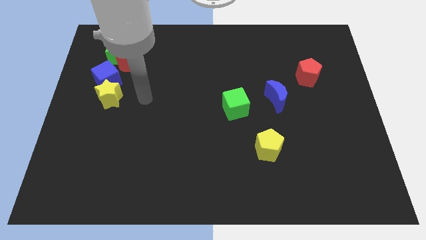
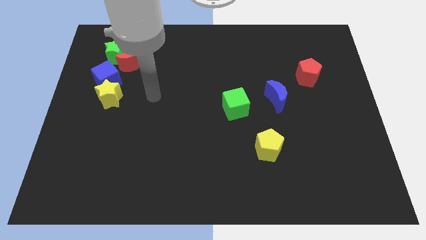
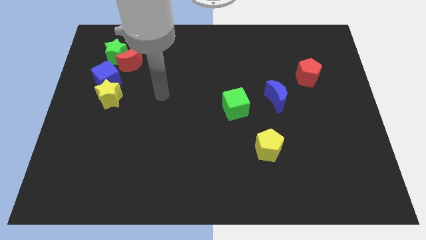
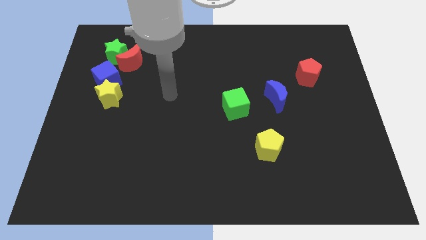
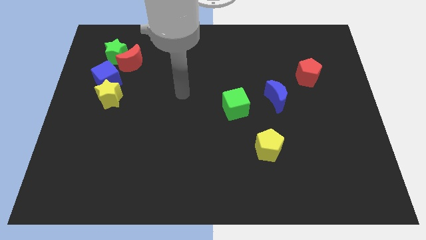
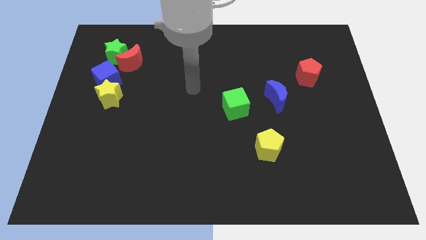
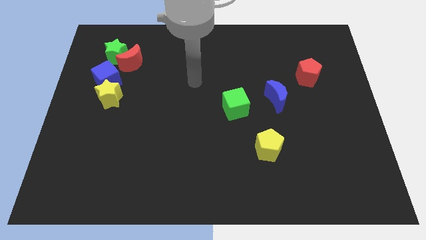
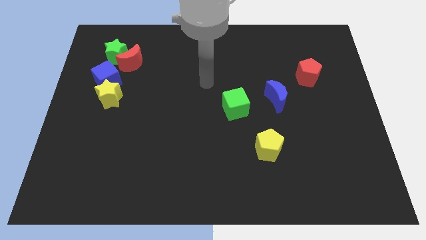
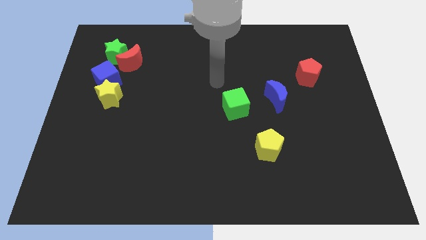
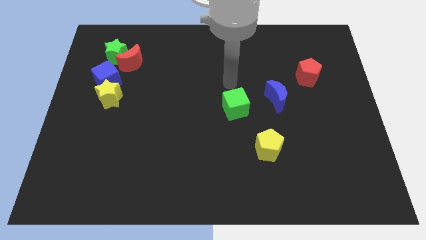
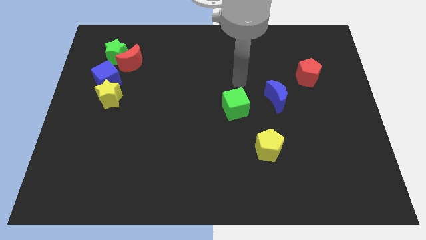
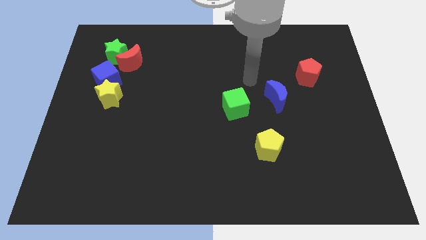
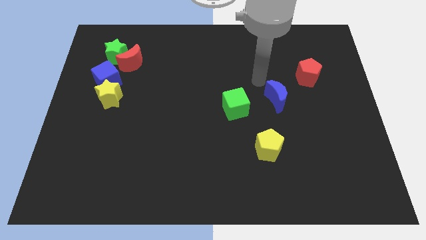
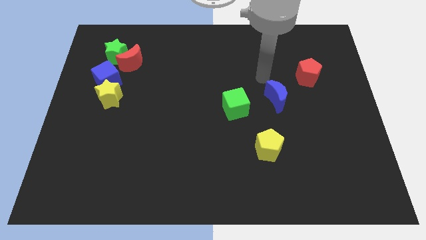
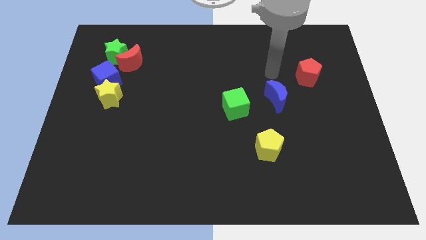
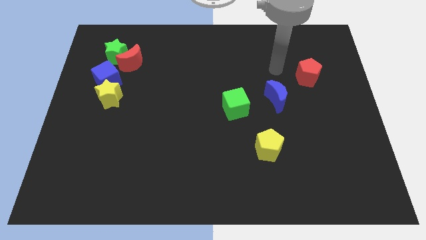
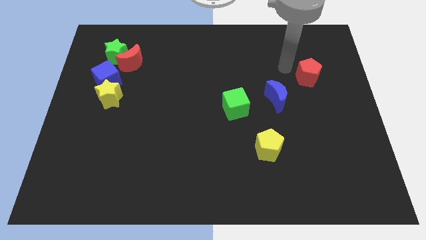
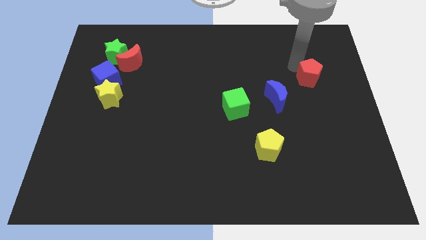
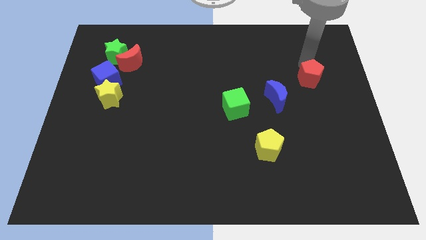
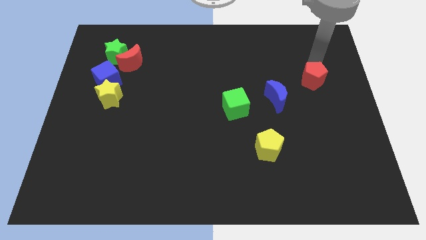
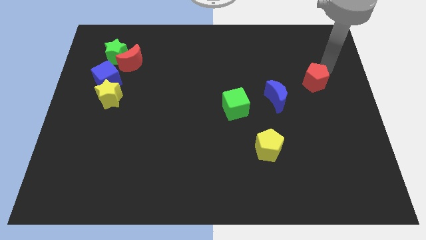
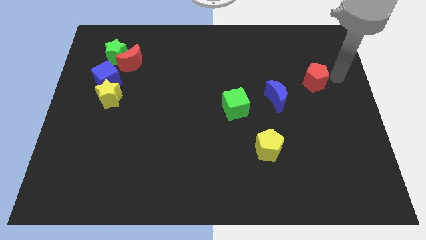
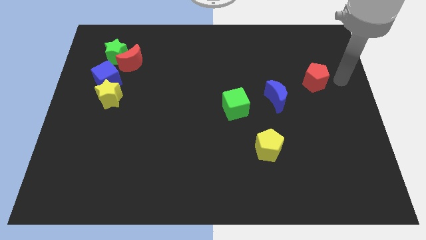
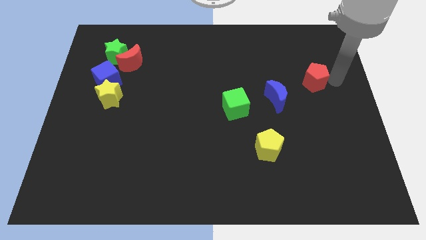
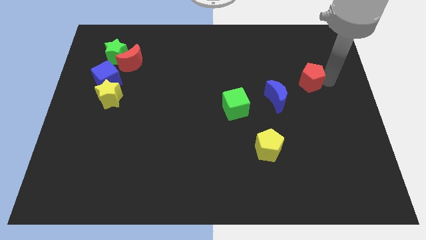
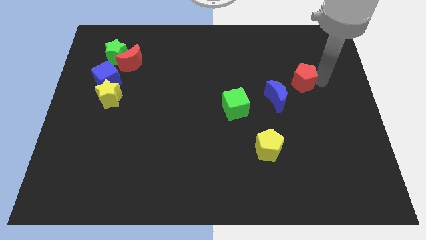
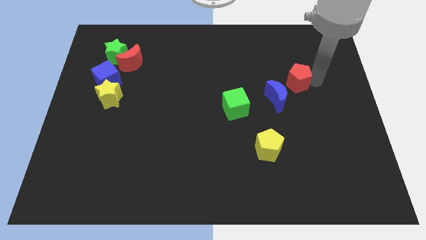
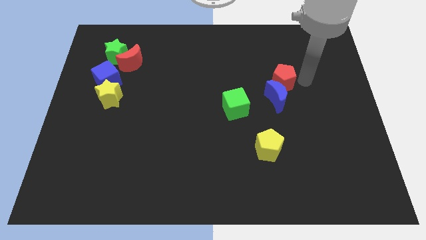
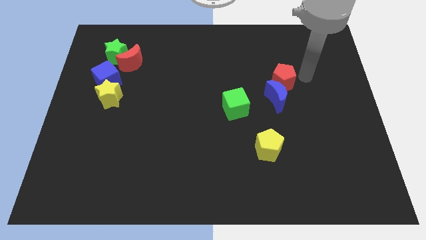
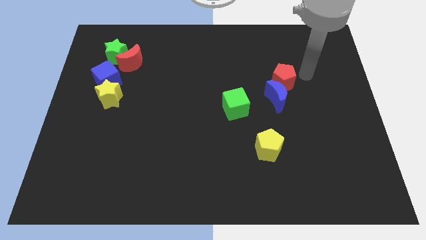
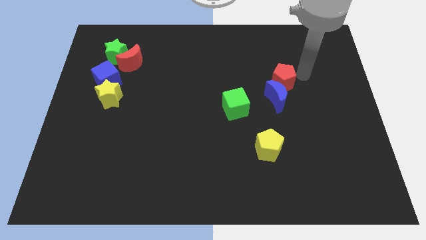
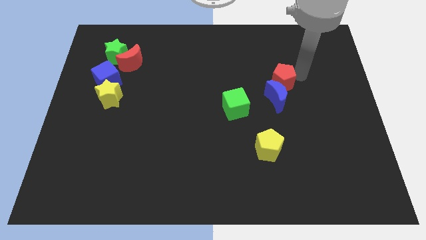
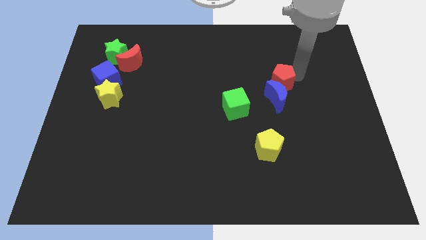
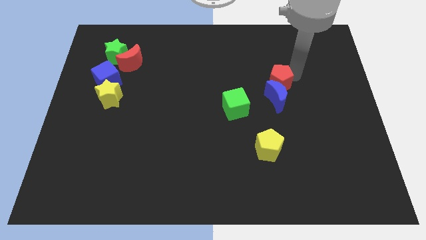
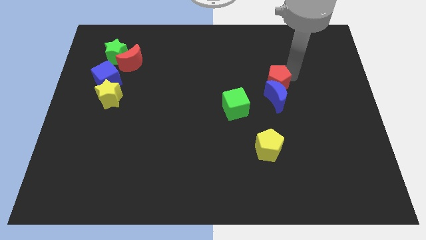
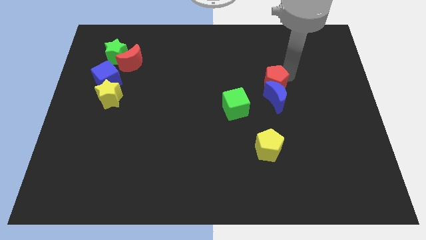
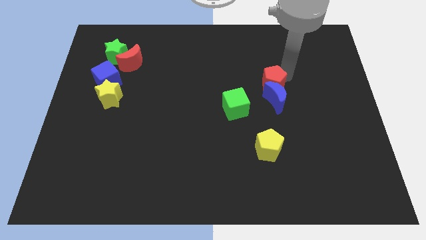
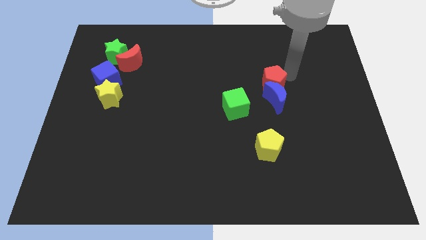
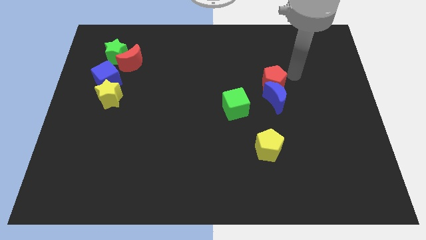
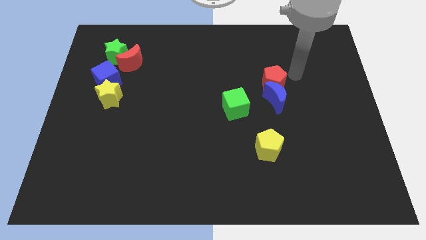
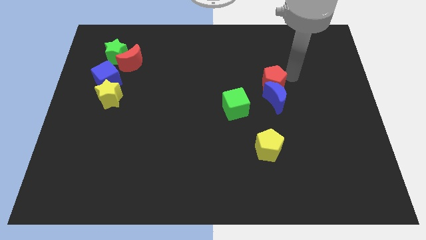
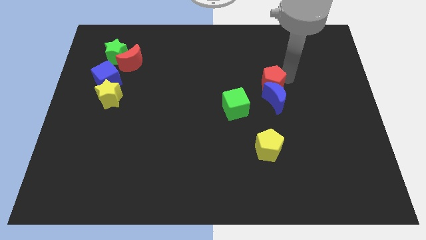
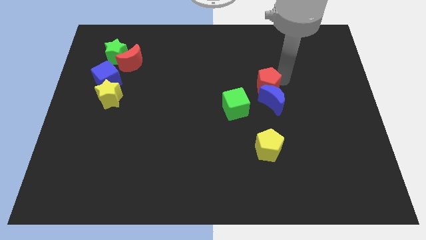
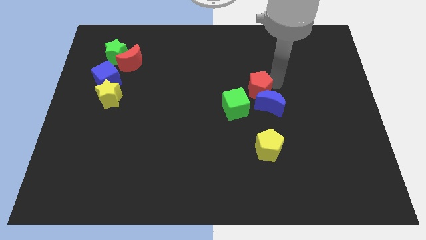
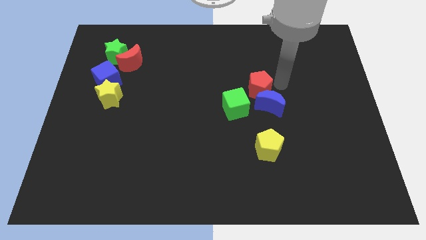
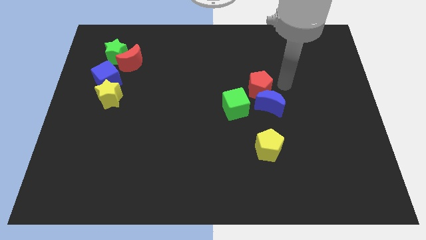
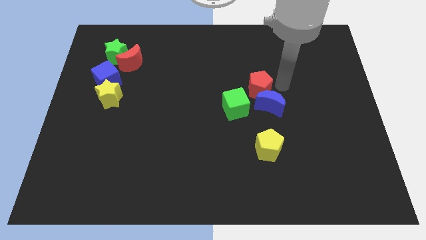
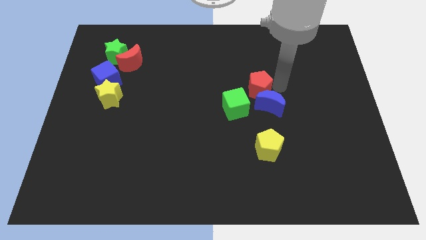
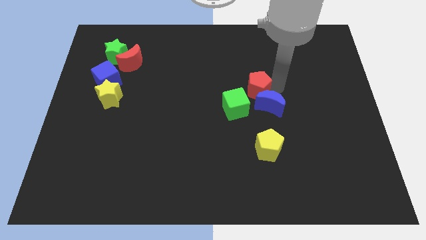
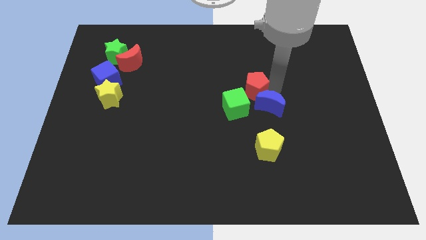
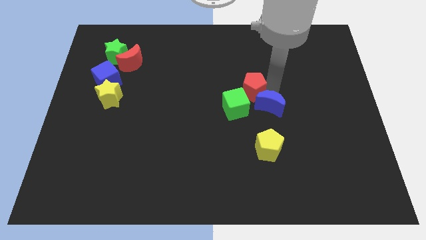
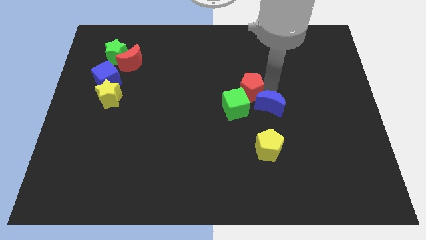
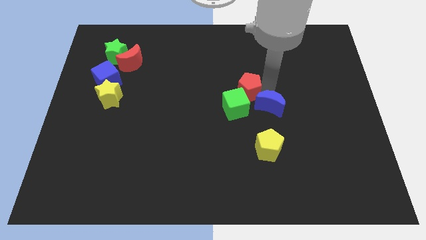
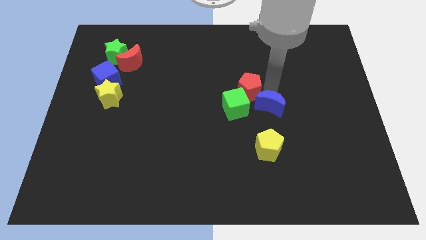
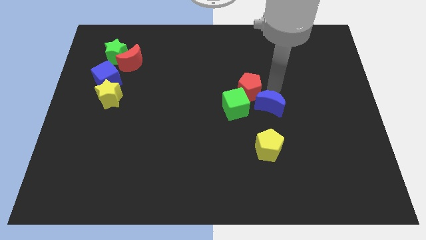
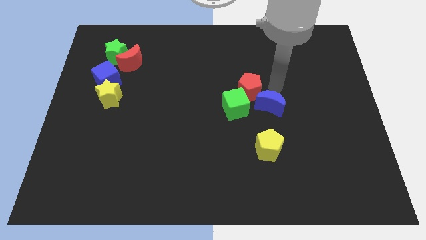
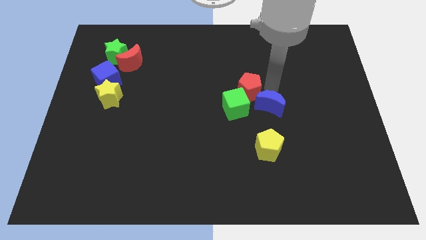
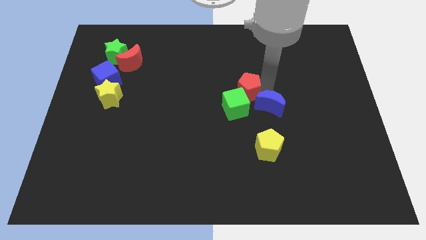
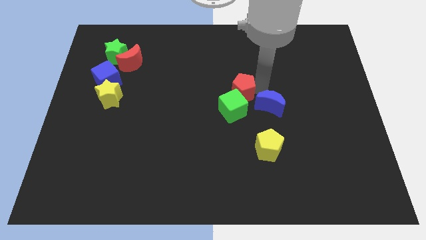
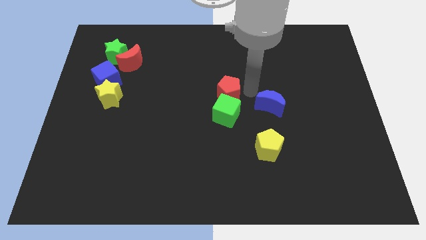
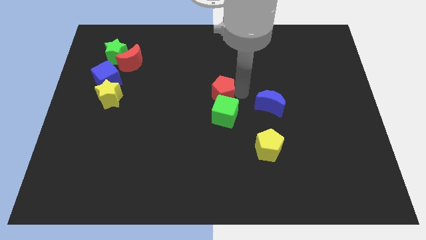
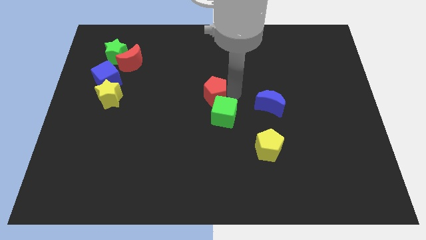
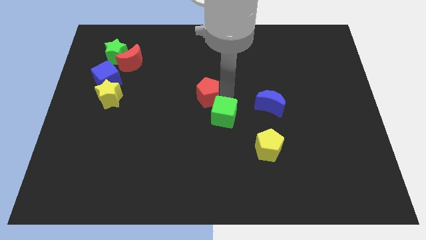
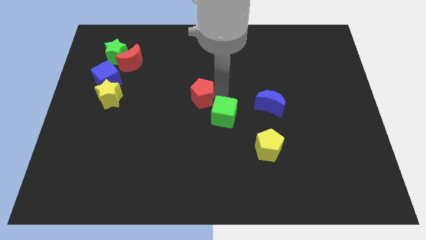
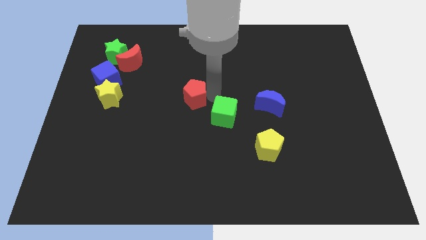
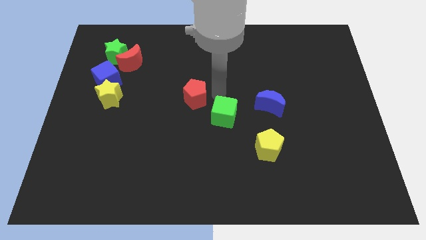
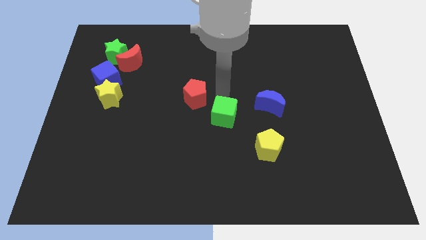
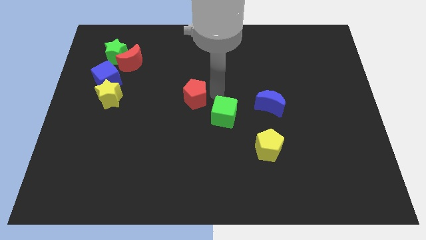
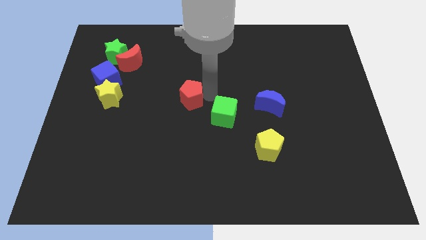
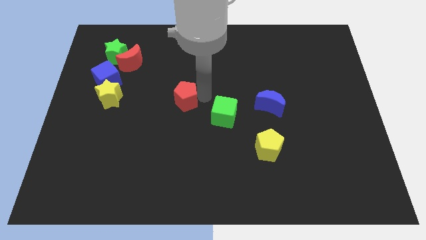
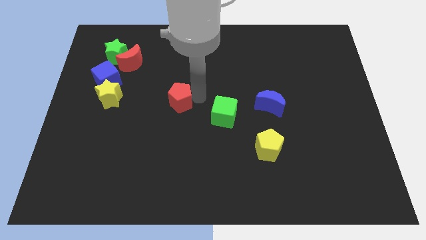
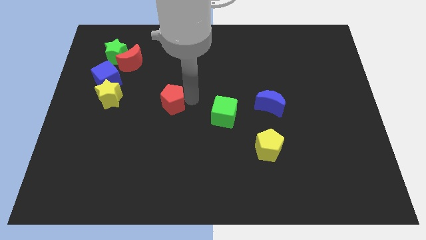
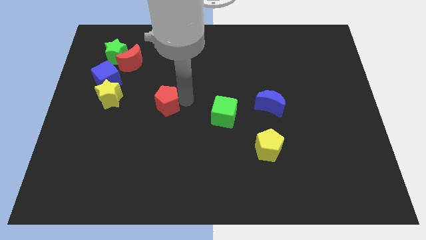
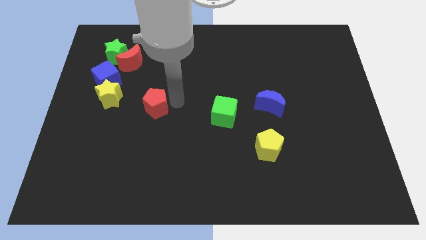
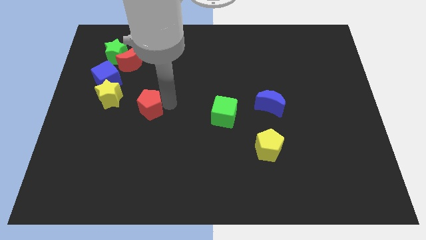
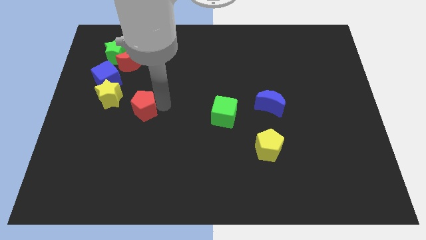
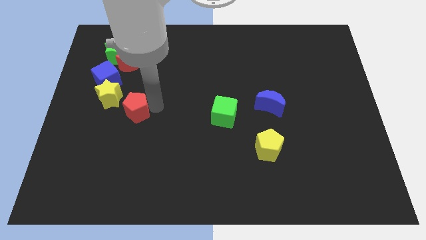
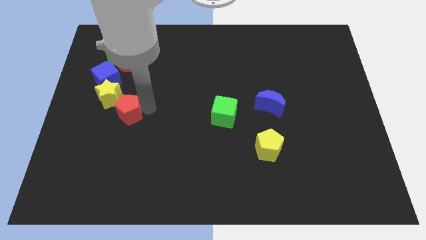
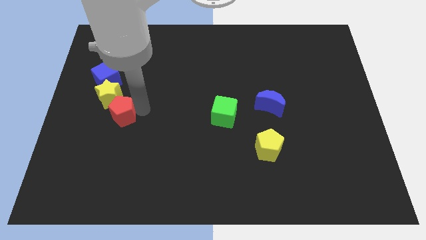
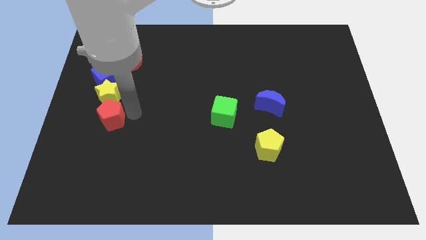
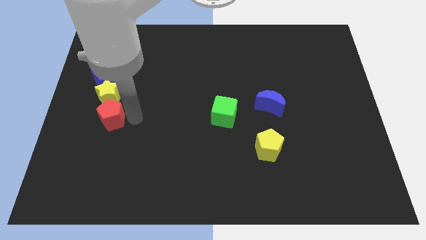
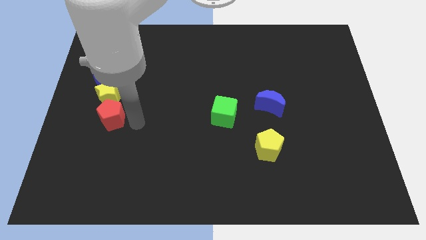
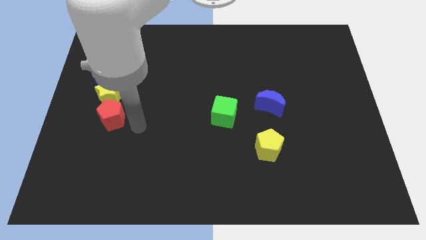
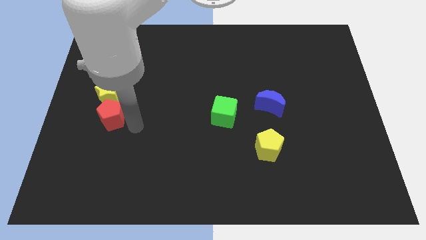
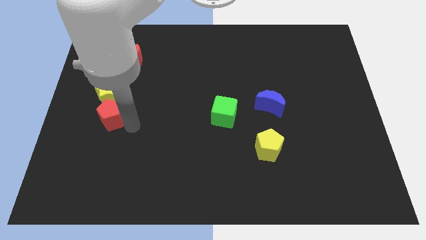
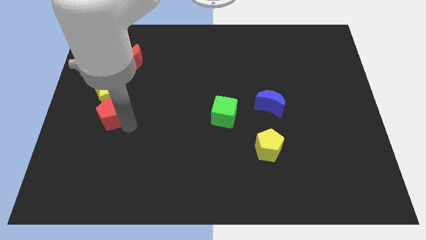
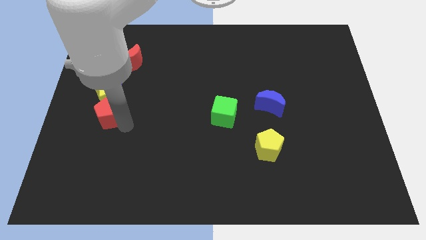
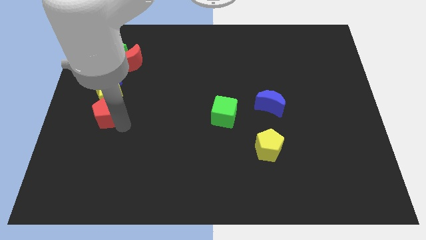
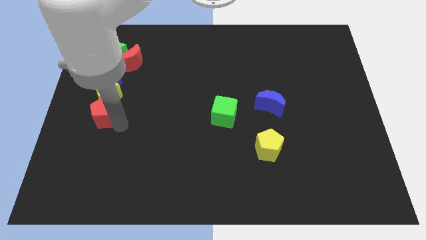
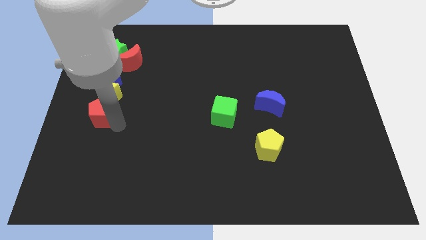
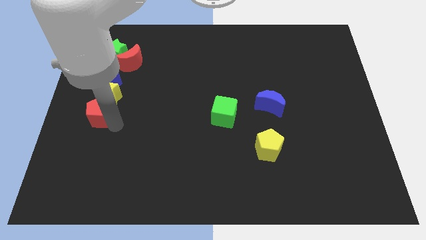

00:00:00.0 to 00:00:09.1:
slide the red pentagon to the center left
